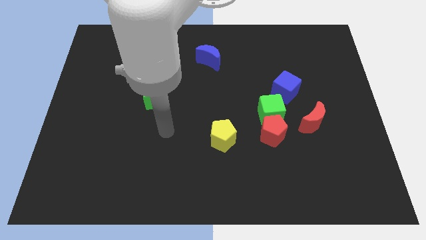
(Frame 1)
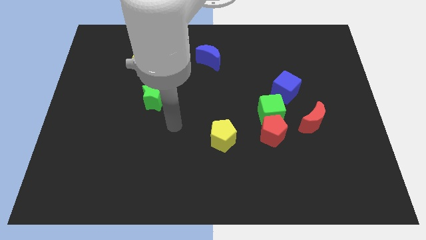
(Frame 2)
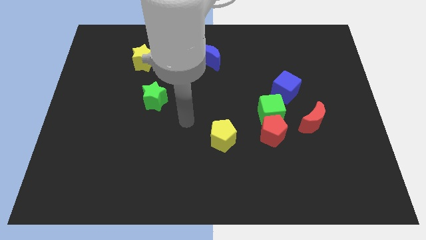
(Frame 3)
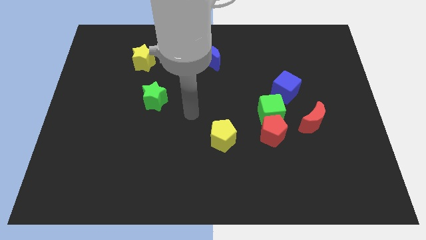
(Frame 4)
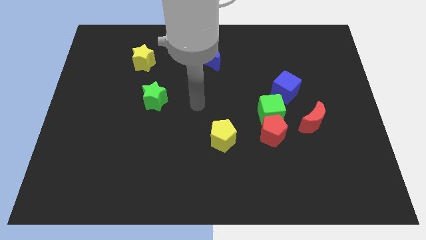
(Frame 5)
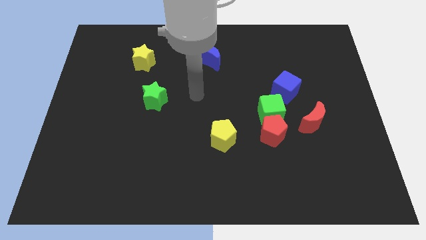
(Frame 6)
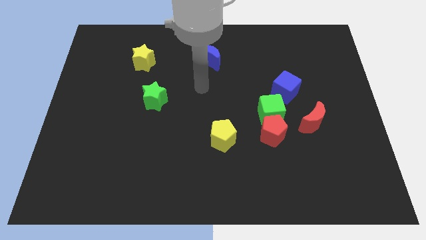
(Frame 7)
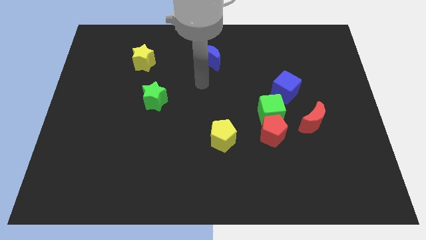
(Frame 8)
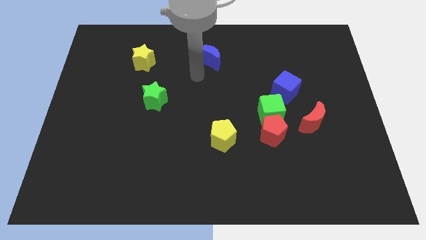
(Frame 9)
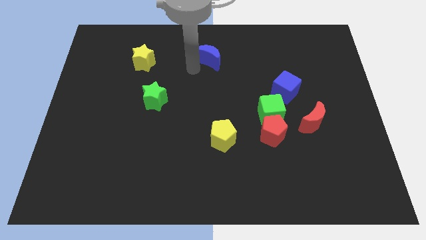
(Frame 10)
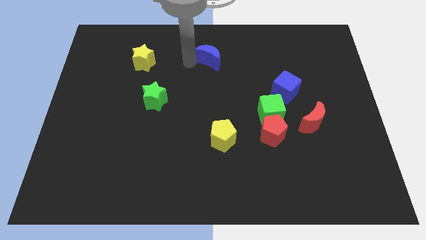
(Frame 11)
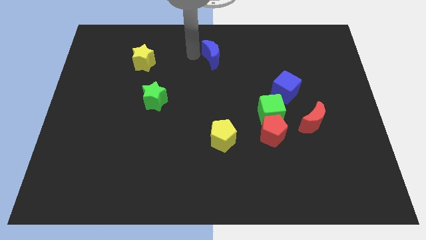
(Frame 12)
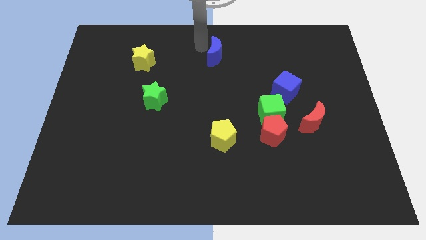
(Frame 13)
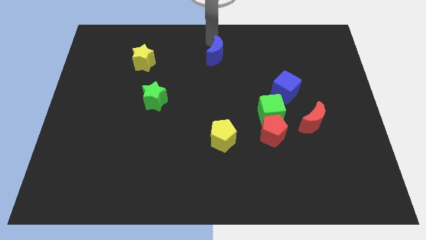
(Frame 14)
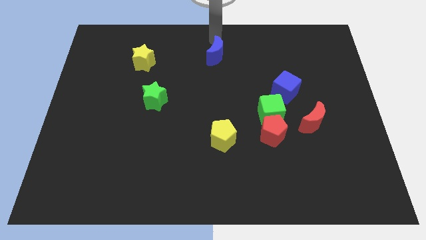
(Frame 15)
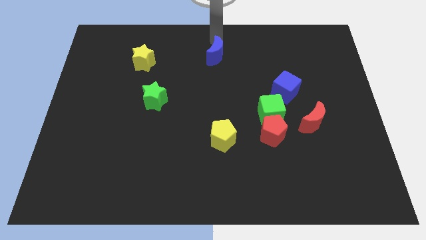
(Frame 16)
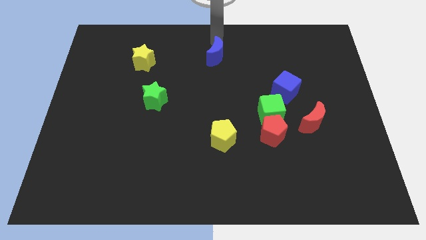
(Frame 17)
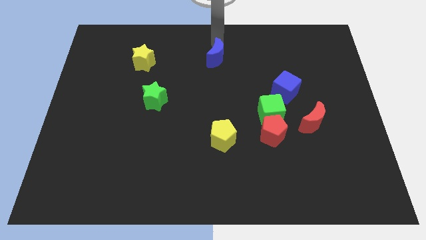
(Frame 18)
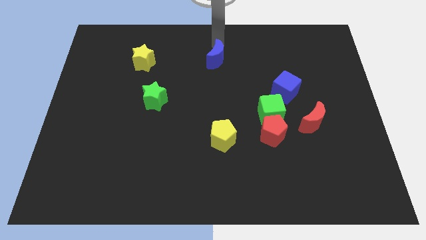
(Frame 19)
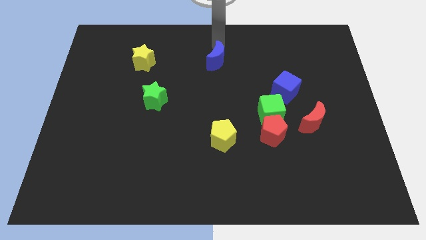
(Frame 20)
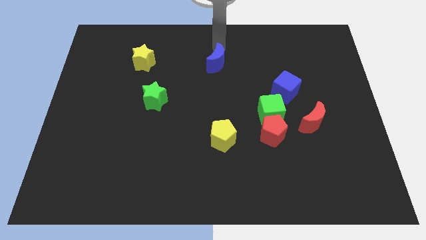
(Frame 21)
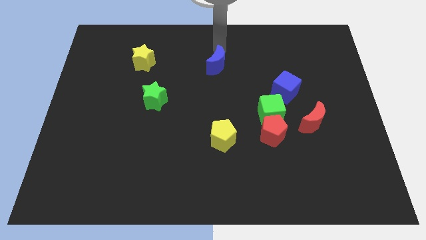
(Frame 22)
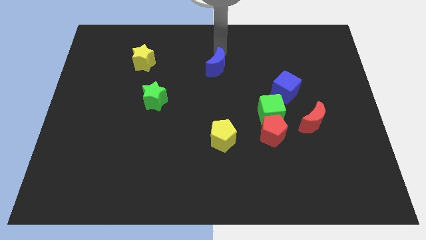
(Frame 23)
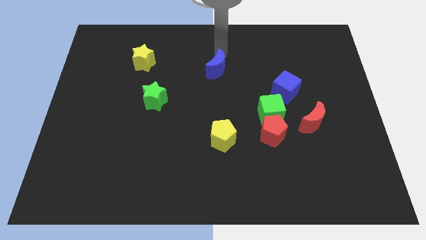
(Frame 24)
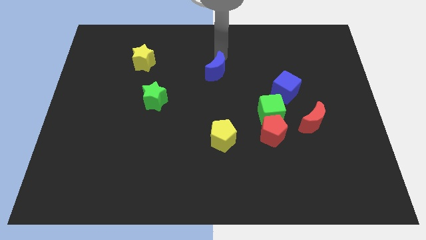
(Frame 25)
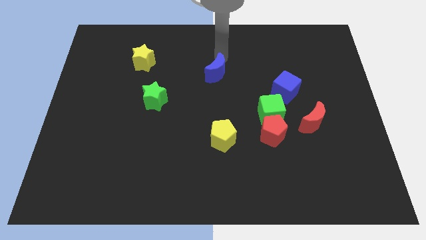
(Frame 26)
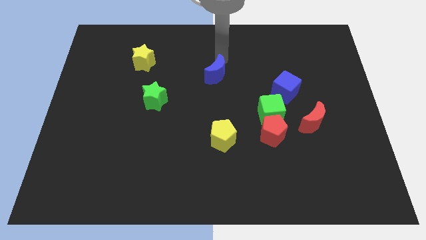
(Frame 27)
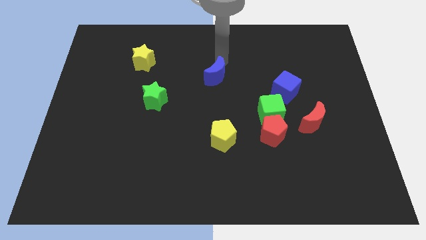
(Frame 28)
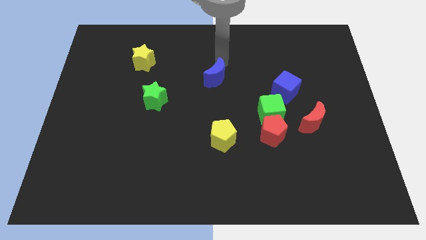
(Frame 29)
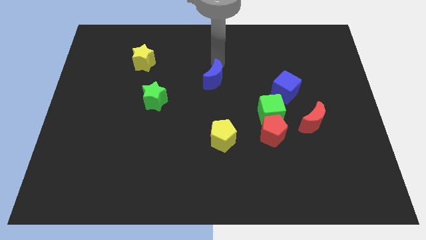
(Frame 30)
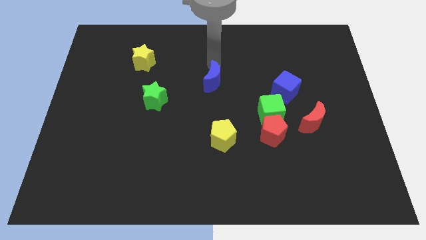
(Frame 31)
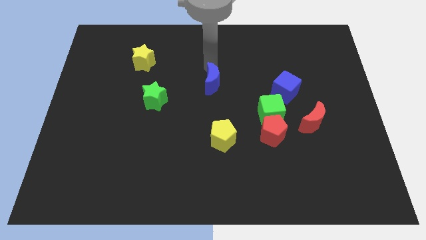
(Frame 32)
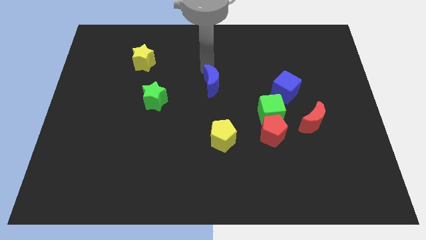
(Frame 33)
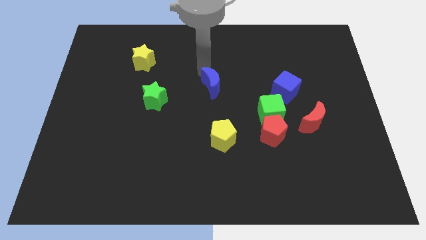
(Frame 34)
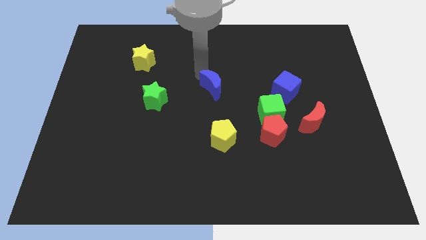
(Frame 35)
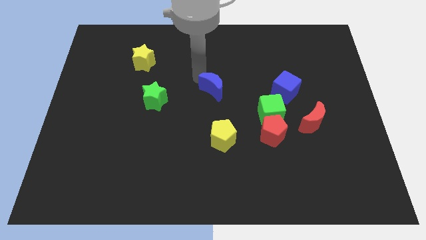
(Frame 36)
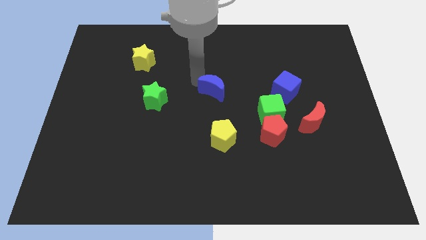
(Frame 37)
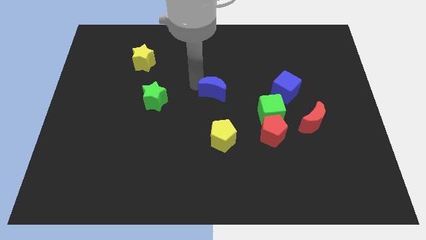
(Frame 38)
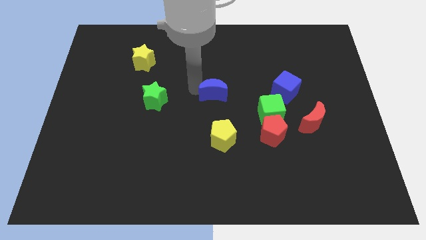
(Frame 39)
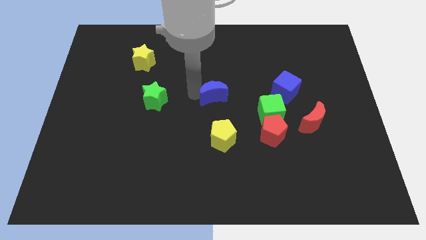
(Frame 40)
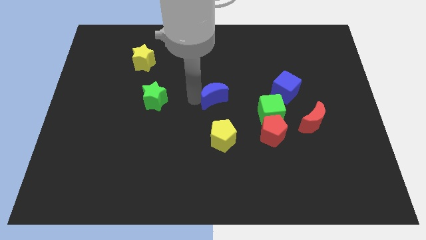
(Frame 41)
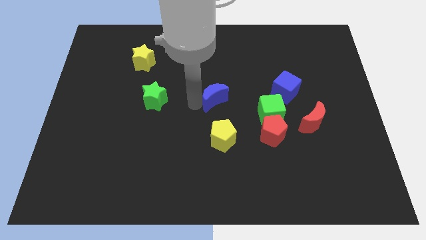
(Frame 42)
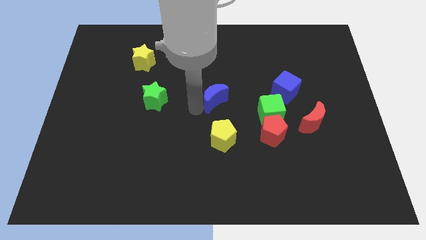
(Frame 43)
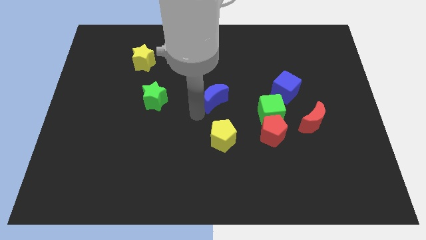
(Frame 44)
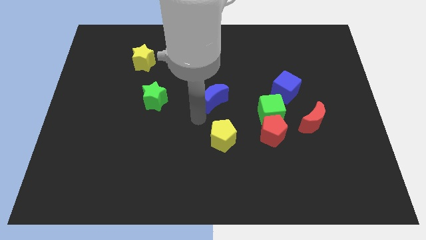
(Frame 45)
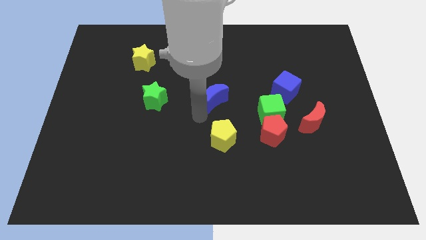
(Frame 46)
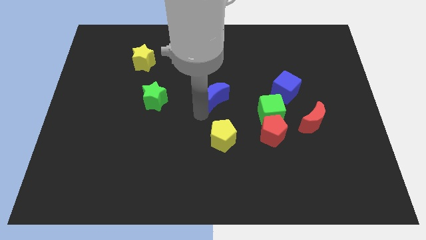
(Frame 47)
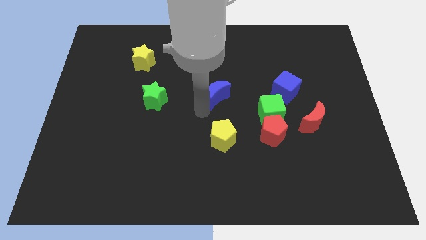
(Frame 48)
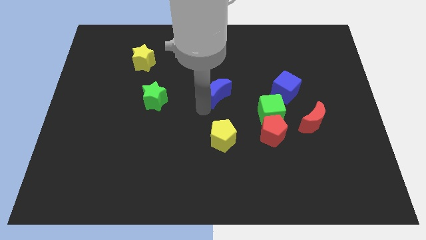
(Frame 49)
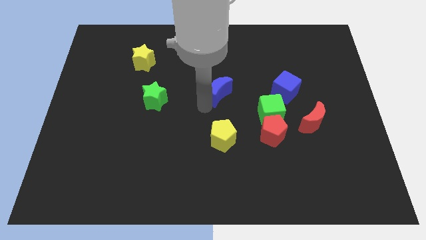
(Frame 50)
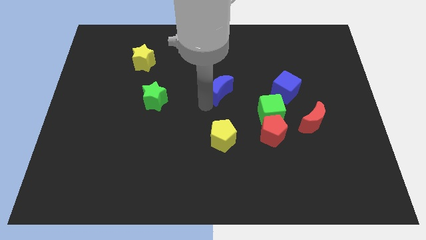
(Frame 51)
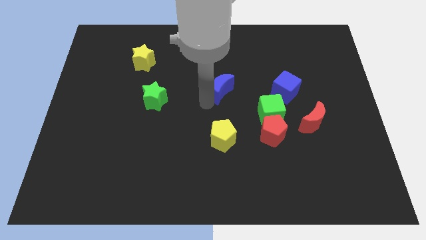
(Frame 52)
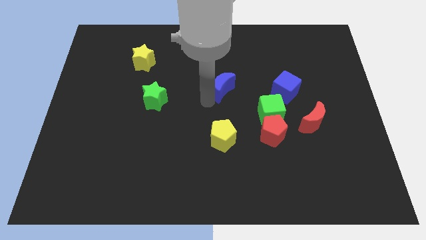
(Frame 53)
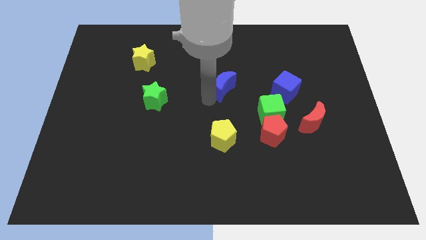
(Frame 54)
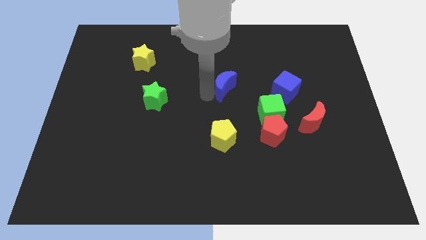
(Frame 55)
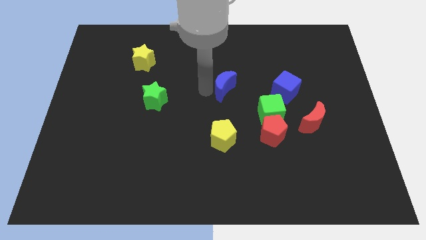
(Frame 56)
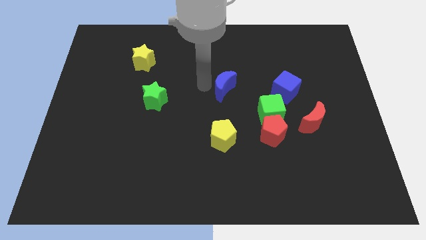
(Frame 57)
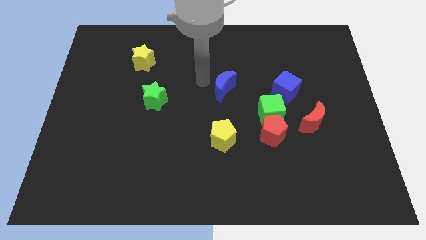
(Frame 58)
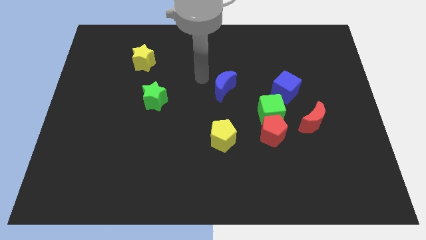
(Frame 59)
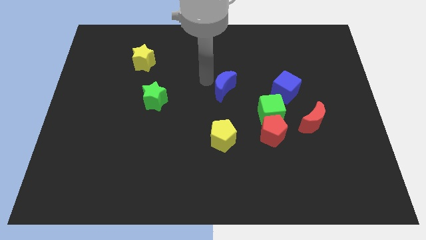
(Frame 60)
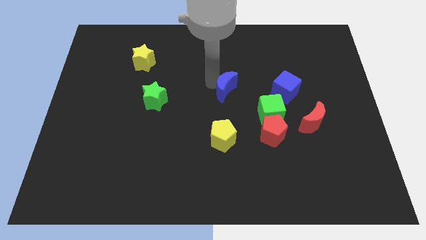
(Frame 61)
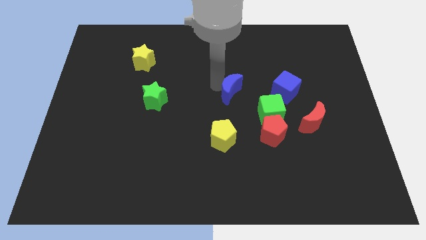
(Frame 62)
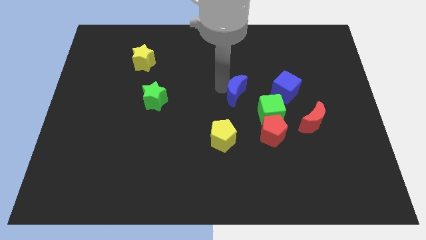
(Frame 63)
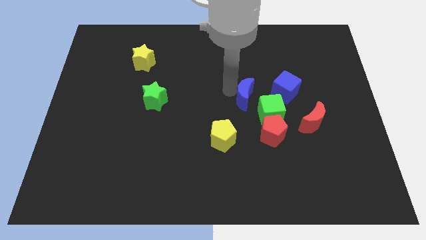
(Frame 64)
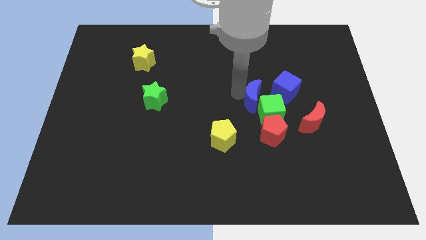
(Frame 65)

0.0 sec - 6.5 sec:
put the blue moon towards the green cube
